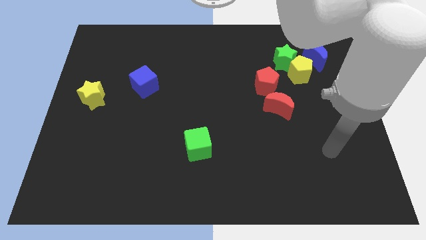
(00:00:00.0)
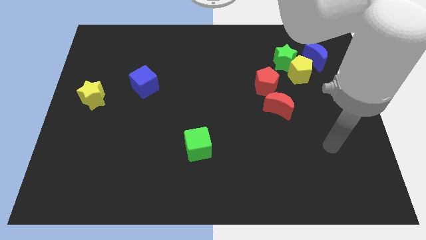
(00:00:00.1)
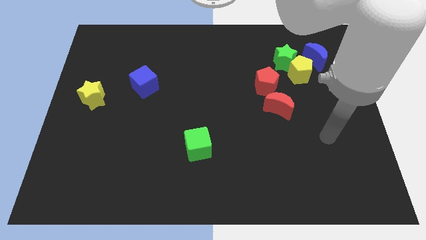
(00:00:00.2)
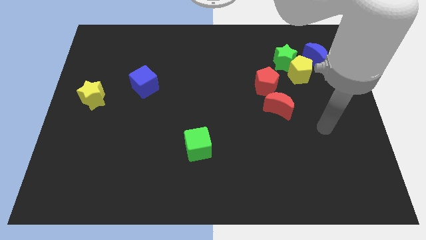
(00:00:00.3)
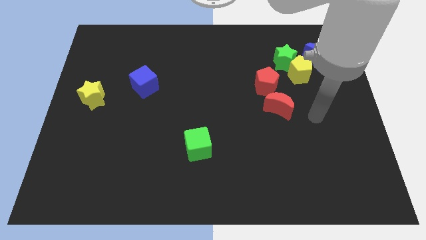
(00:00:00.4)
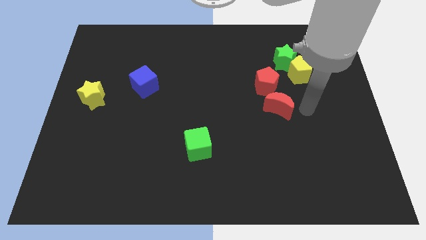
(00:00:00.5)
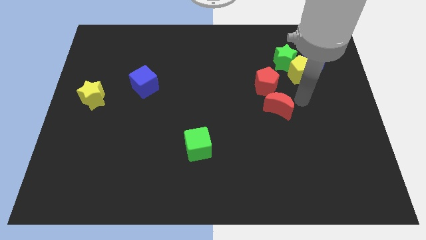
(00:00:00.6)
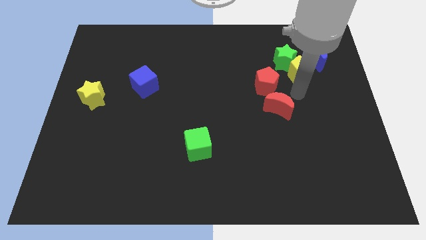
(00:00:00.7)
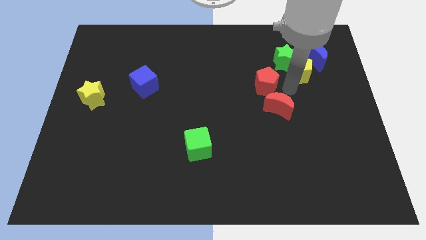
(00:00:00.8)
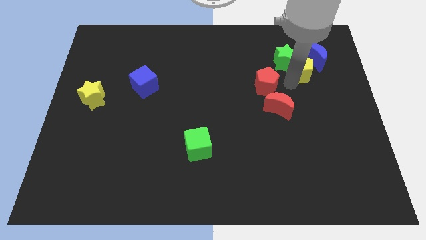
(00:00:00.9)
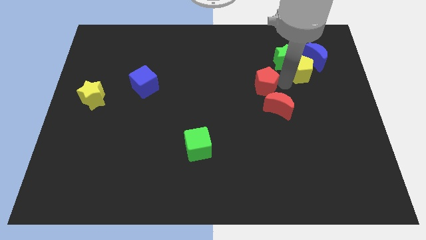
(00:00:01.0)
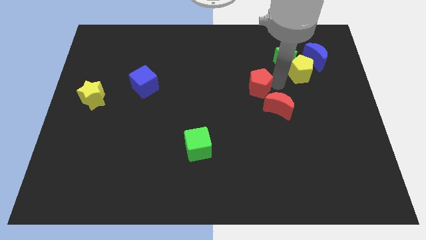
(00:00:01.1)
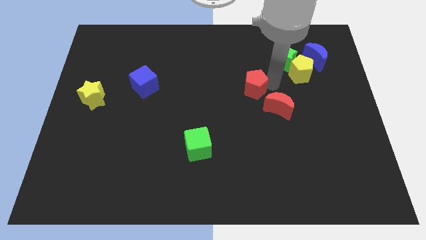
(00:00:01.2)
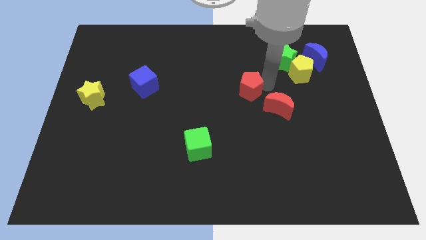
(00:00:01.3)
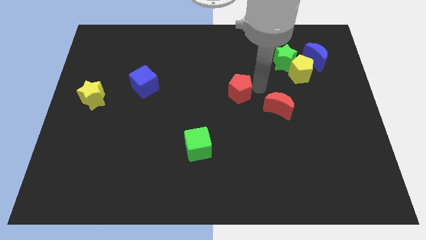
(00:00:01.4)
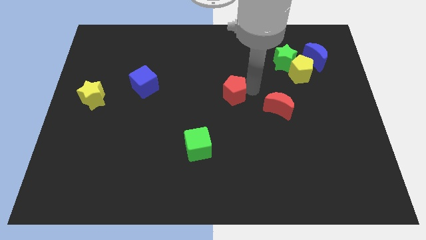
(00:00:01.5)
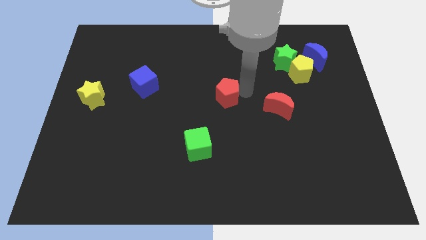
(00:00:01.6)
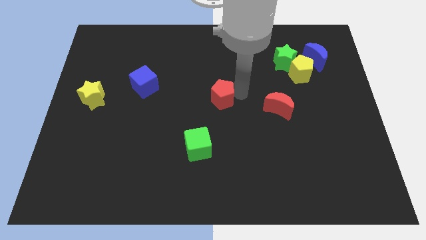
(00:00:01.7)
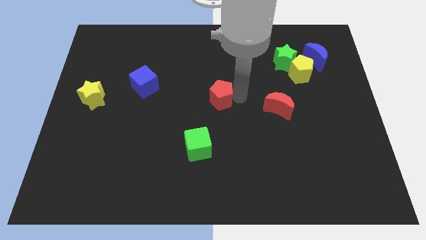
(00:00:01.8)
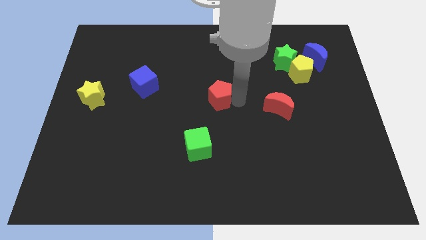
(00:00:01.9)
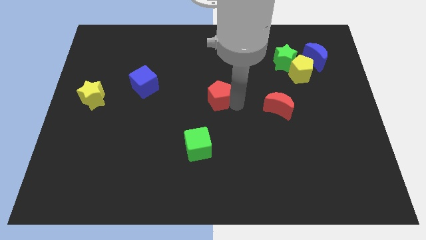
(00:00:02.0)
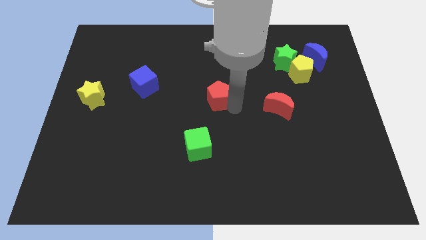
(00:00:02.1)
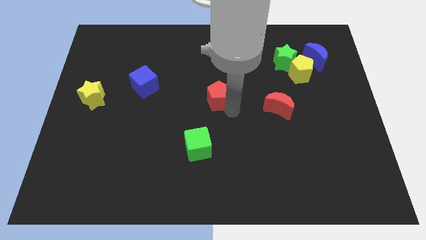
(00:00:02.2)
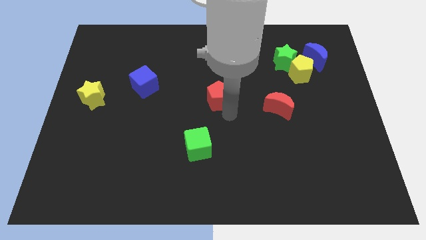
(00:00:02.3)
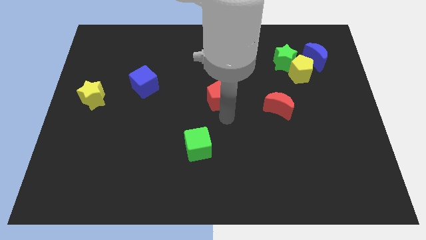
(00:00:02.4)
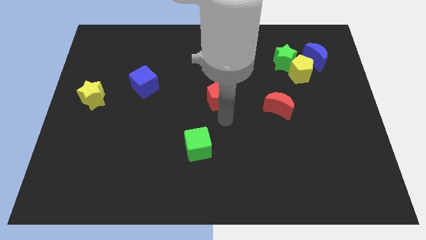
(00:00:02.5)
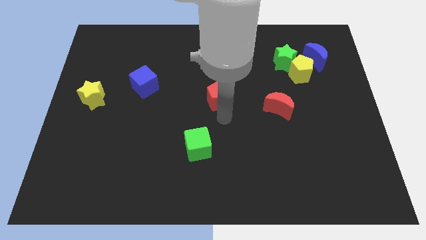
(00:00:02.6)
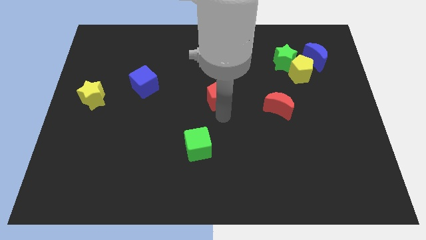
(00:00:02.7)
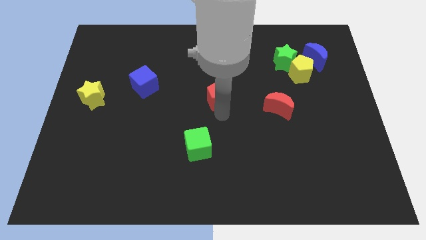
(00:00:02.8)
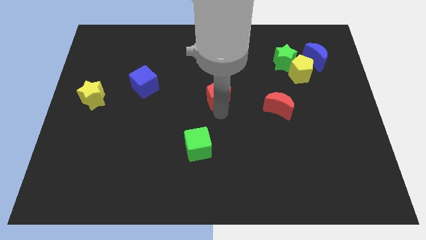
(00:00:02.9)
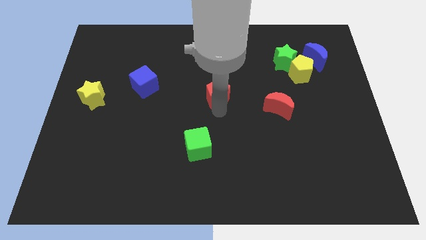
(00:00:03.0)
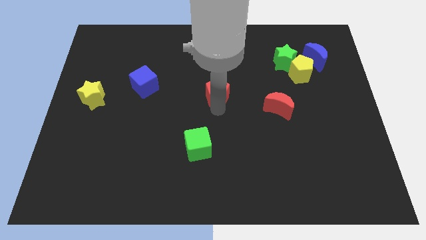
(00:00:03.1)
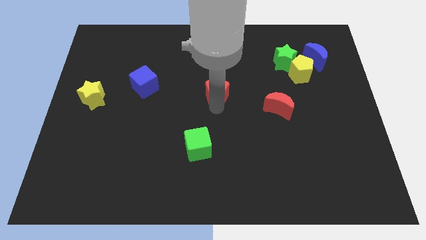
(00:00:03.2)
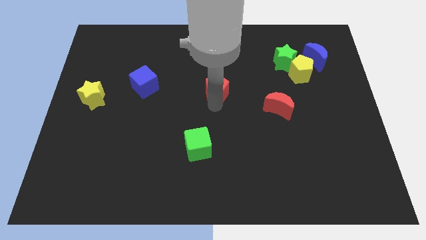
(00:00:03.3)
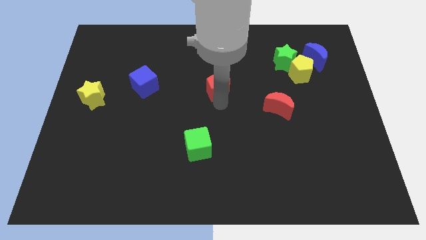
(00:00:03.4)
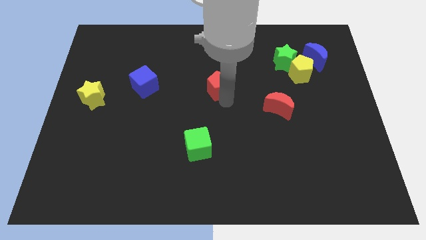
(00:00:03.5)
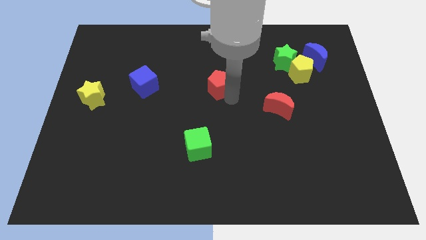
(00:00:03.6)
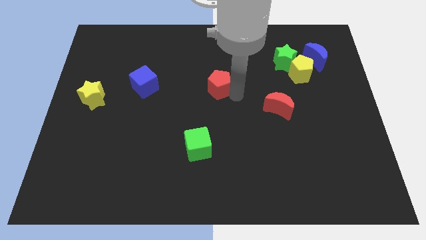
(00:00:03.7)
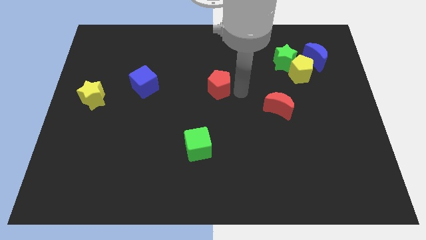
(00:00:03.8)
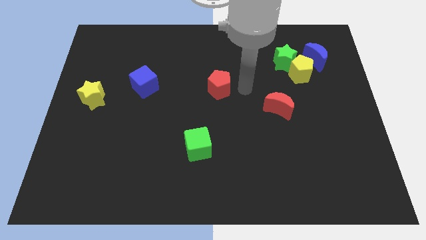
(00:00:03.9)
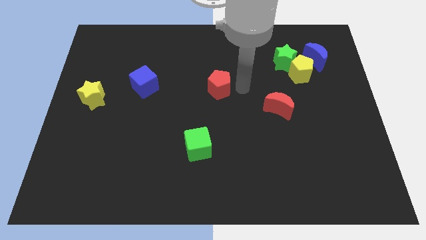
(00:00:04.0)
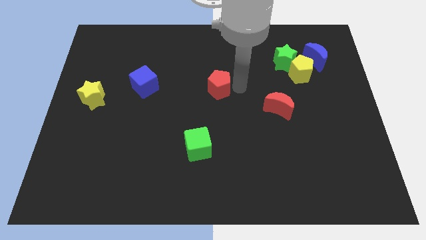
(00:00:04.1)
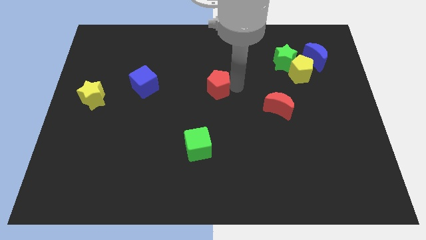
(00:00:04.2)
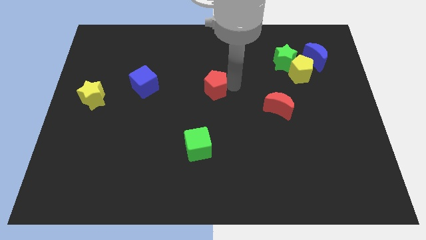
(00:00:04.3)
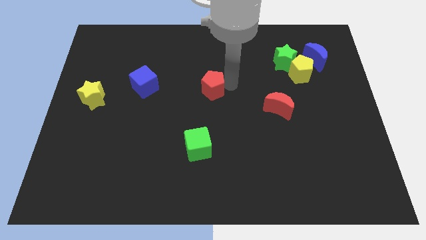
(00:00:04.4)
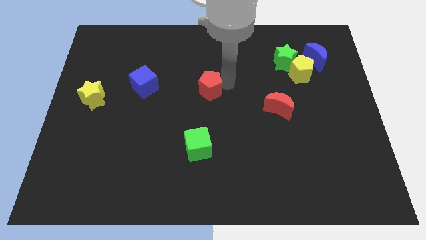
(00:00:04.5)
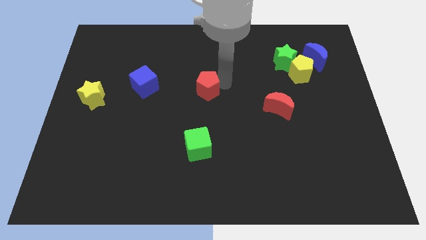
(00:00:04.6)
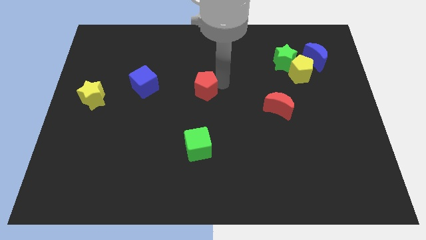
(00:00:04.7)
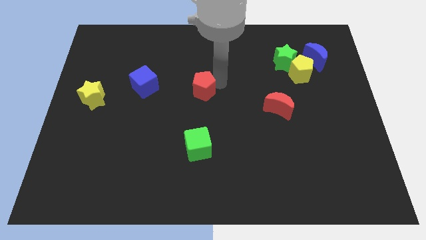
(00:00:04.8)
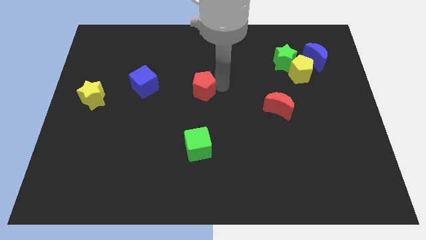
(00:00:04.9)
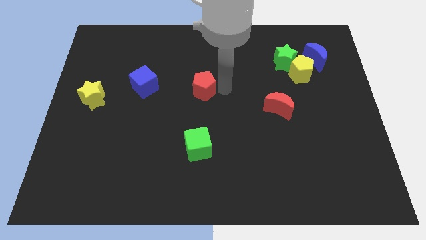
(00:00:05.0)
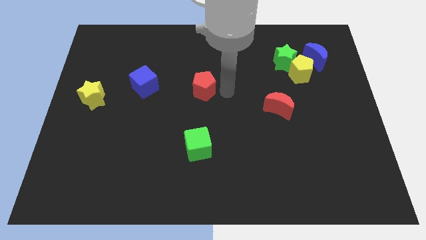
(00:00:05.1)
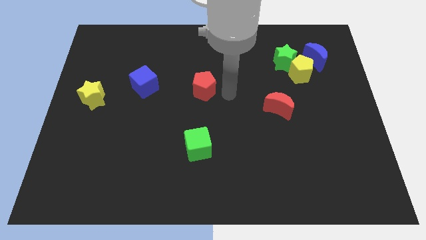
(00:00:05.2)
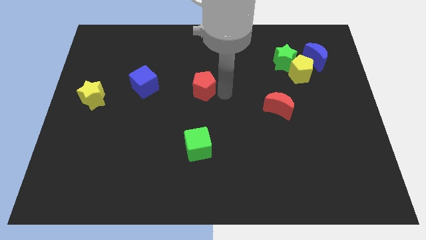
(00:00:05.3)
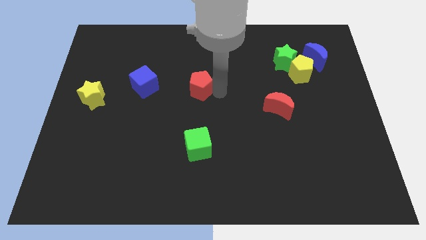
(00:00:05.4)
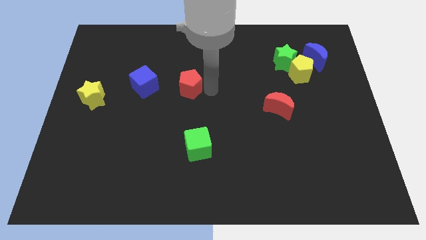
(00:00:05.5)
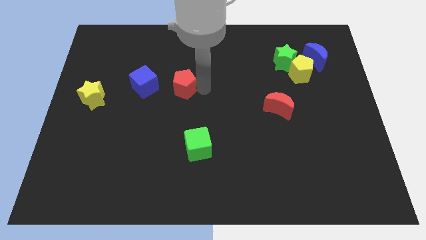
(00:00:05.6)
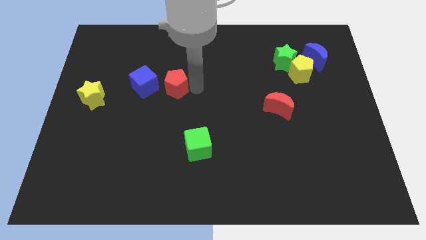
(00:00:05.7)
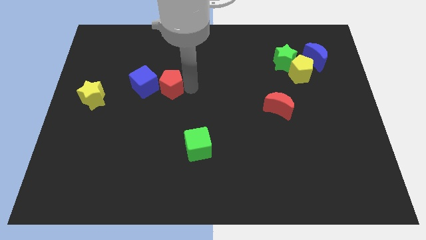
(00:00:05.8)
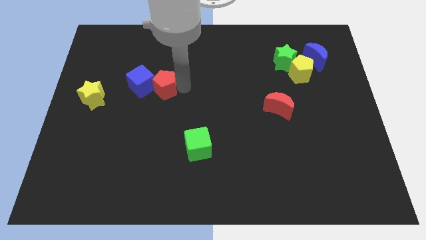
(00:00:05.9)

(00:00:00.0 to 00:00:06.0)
put the red pentagon to the blue cube

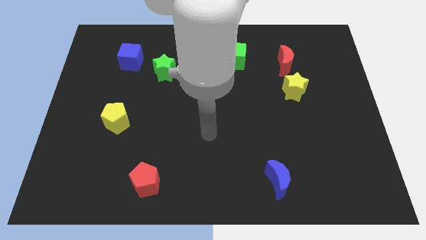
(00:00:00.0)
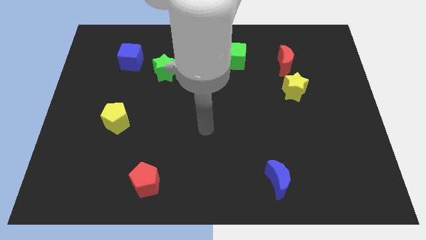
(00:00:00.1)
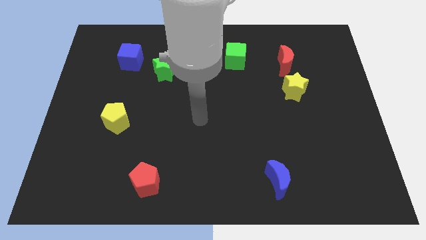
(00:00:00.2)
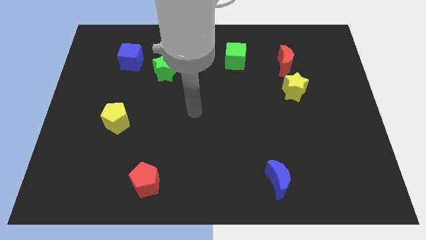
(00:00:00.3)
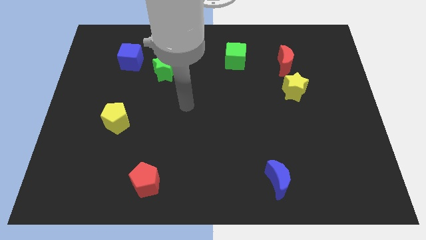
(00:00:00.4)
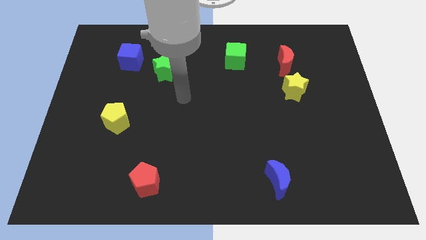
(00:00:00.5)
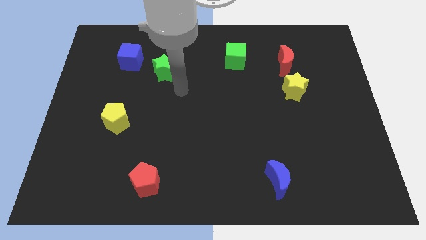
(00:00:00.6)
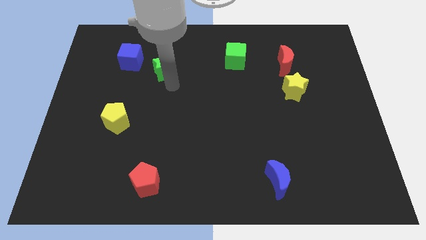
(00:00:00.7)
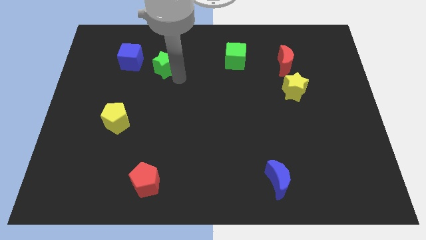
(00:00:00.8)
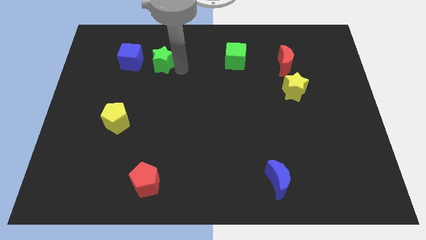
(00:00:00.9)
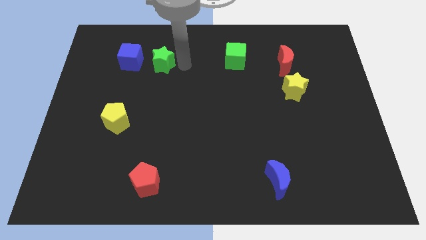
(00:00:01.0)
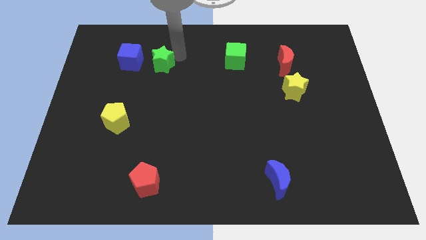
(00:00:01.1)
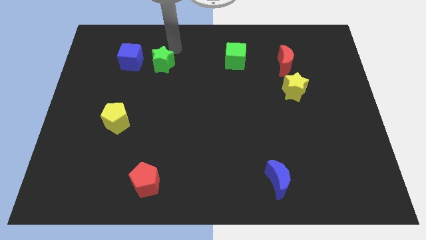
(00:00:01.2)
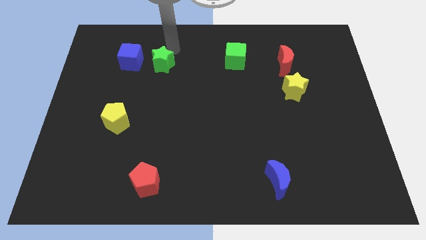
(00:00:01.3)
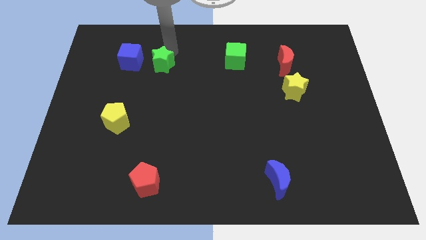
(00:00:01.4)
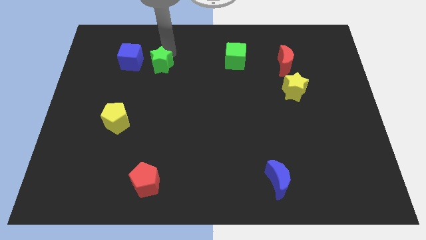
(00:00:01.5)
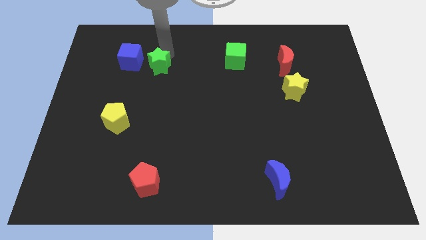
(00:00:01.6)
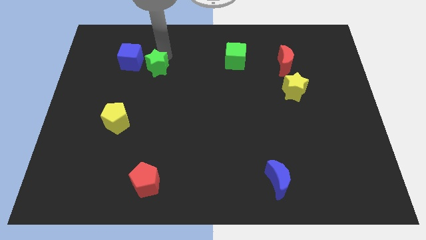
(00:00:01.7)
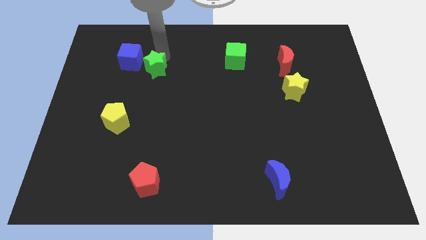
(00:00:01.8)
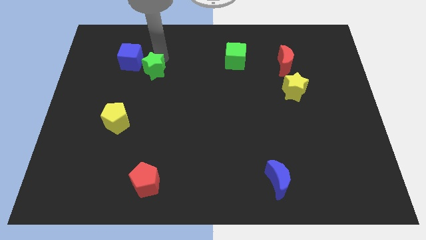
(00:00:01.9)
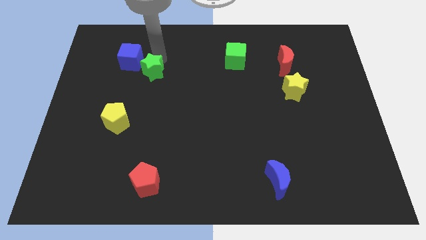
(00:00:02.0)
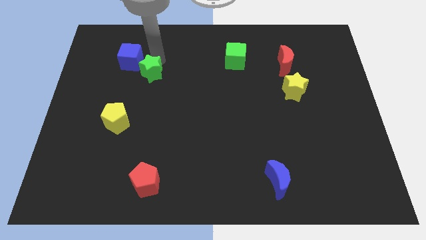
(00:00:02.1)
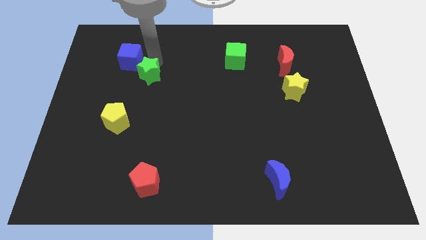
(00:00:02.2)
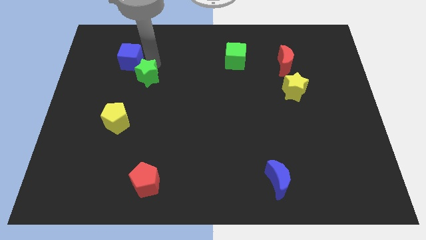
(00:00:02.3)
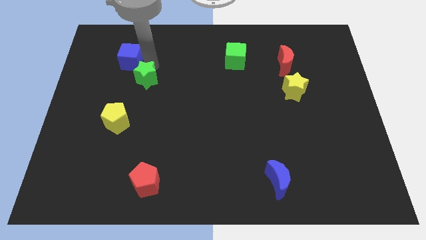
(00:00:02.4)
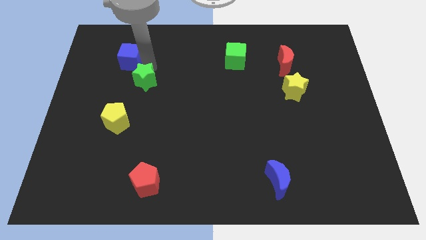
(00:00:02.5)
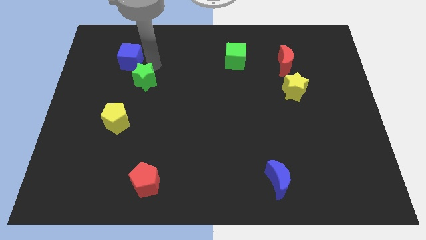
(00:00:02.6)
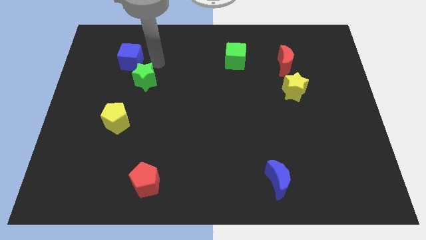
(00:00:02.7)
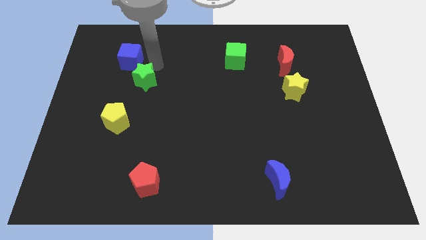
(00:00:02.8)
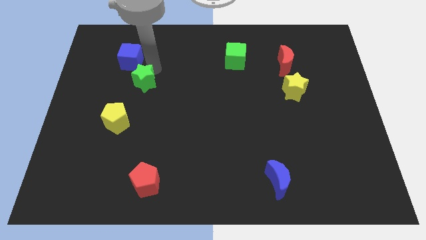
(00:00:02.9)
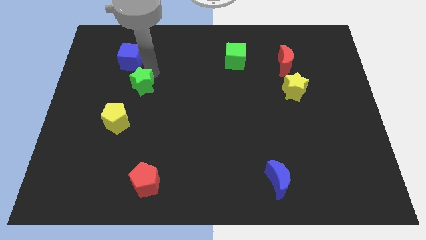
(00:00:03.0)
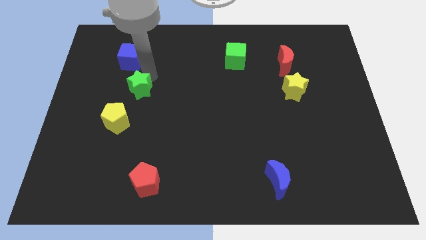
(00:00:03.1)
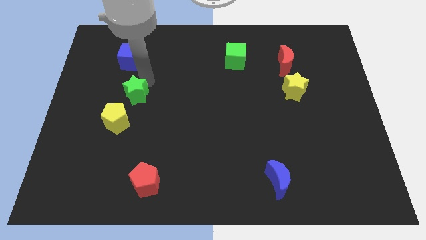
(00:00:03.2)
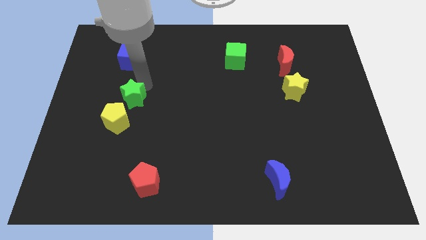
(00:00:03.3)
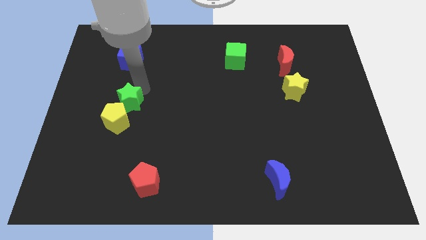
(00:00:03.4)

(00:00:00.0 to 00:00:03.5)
put the green star to the yellow pentagon
